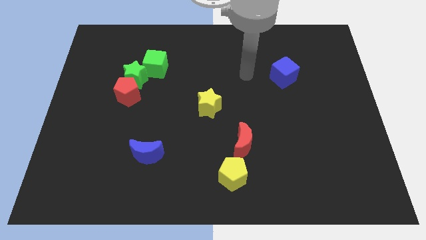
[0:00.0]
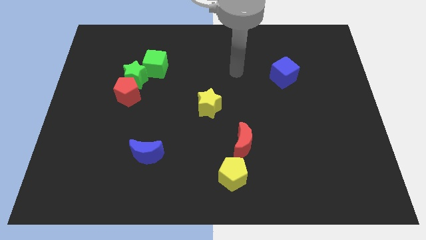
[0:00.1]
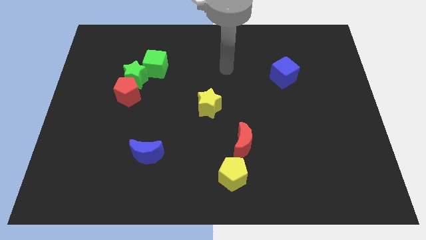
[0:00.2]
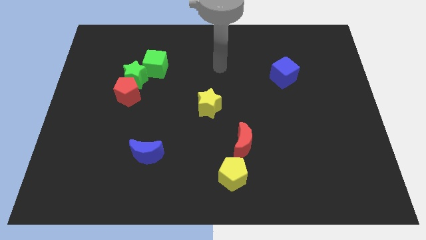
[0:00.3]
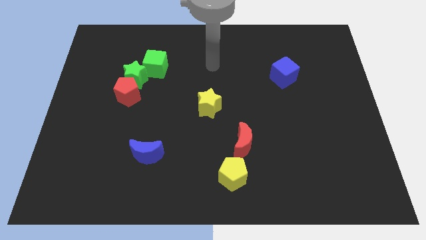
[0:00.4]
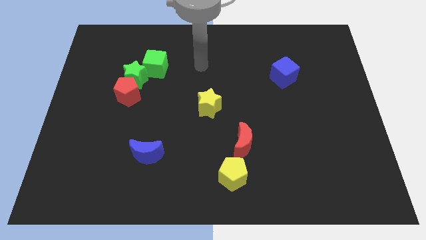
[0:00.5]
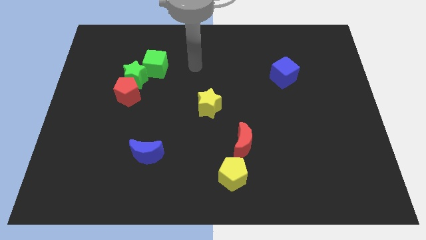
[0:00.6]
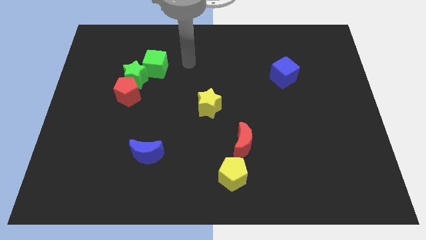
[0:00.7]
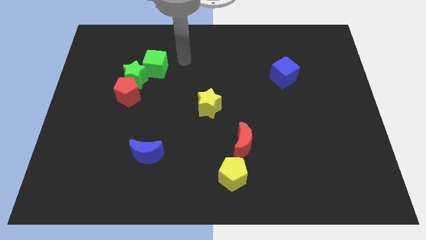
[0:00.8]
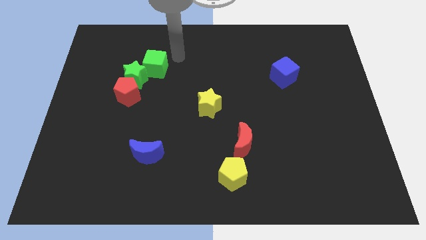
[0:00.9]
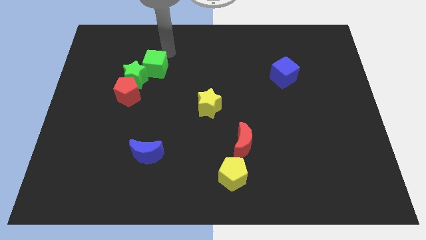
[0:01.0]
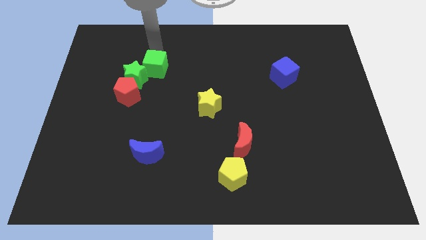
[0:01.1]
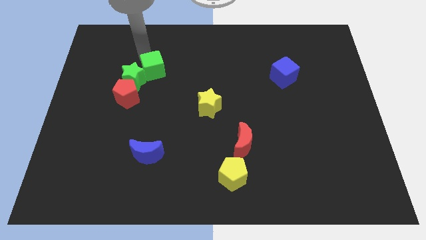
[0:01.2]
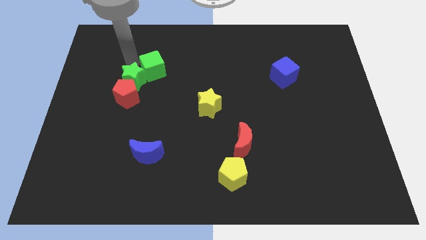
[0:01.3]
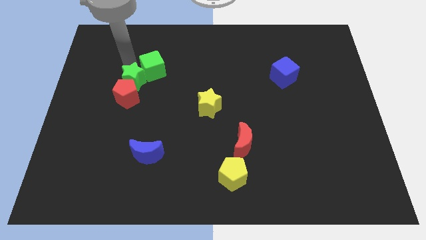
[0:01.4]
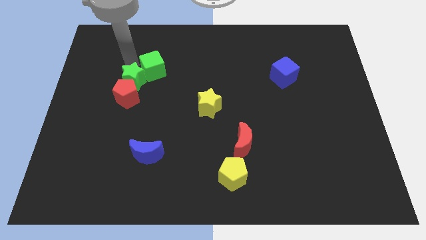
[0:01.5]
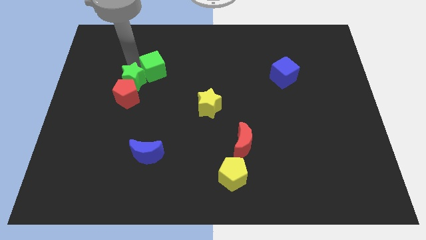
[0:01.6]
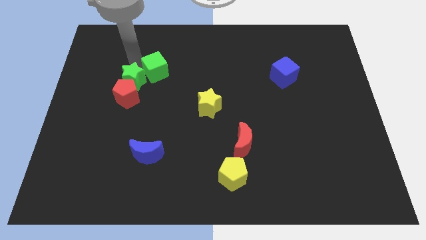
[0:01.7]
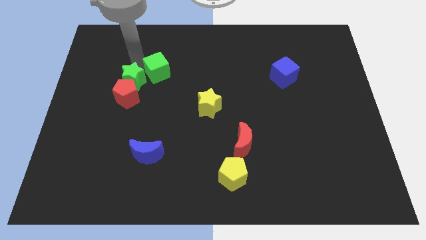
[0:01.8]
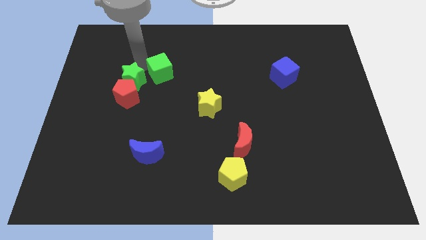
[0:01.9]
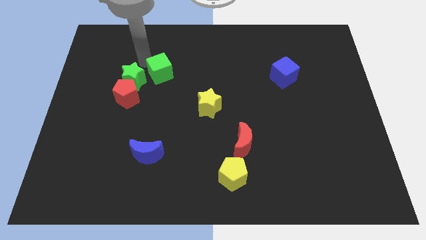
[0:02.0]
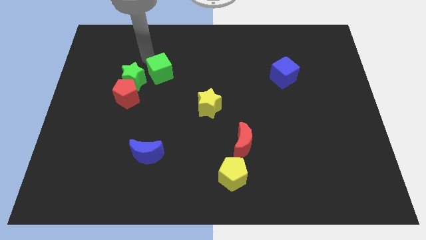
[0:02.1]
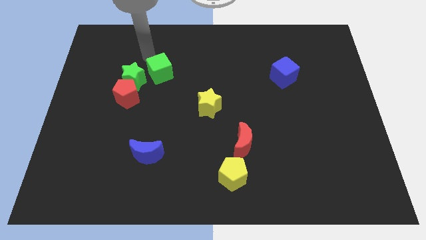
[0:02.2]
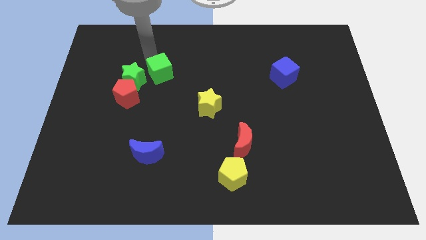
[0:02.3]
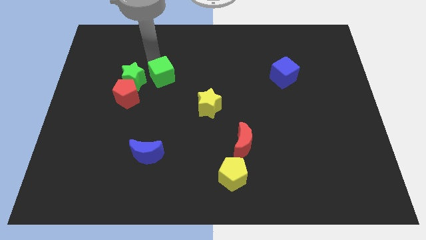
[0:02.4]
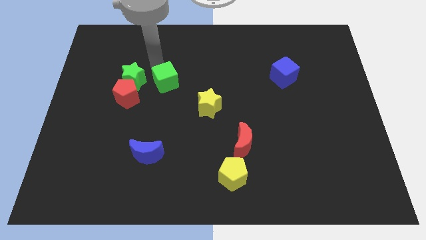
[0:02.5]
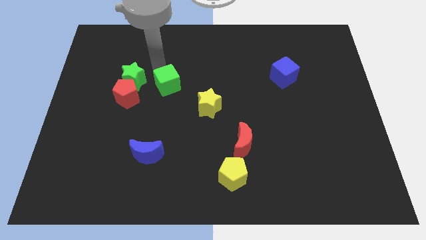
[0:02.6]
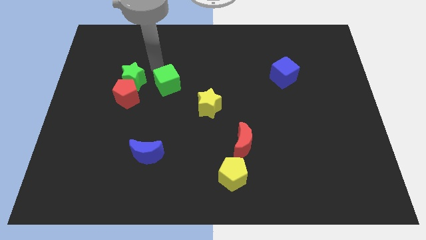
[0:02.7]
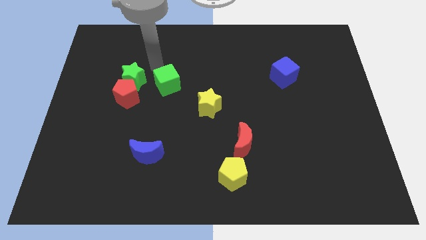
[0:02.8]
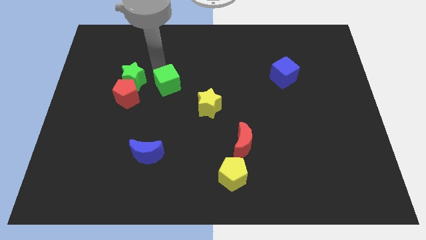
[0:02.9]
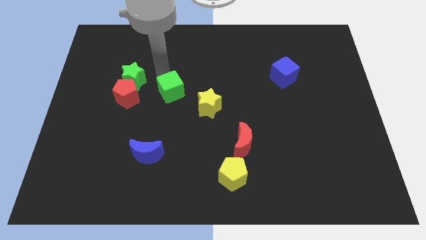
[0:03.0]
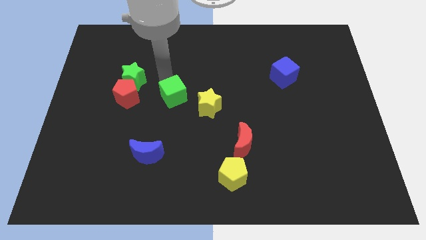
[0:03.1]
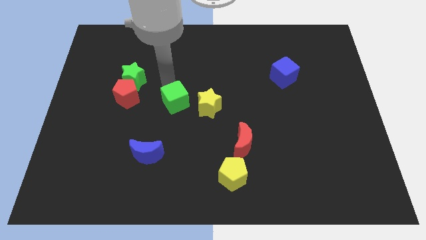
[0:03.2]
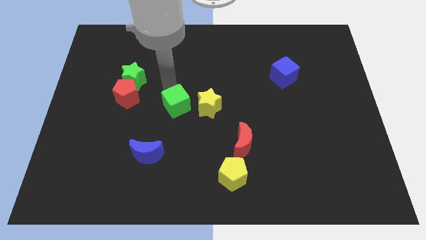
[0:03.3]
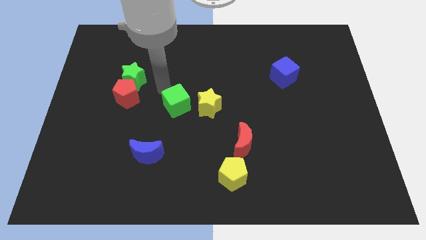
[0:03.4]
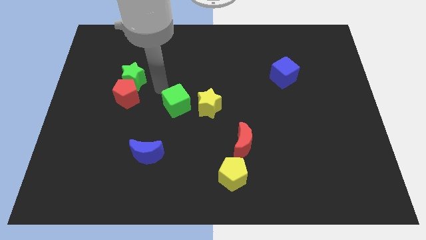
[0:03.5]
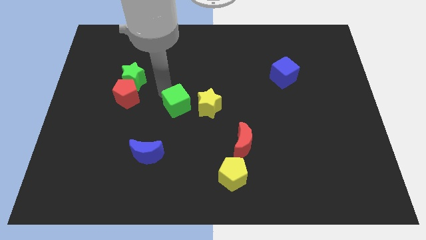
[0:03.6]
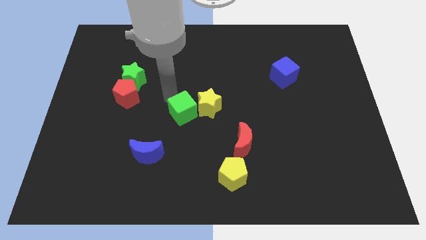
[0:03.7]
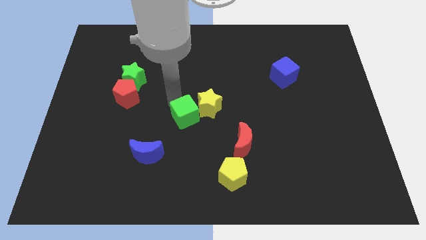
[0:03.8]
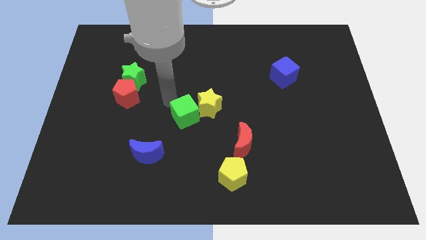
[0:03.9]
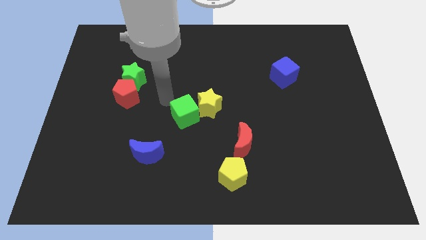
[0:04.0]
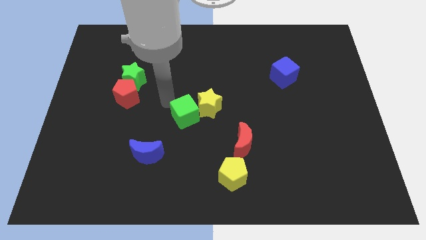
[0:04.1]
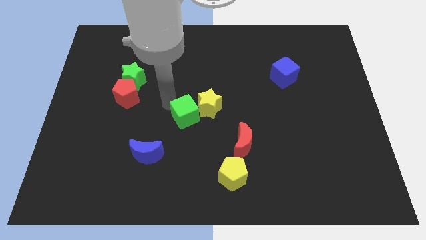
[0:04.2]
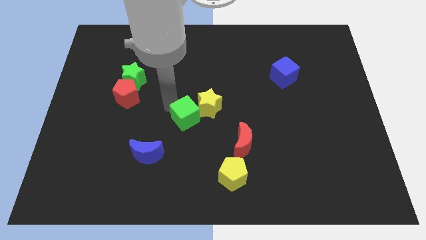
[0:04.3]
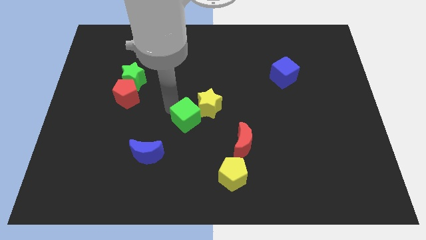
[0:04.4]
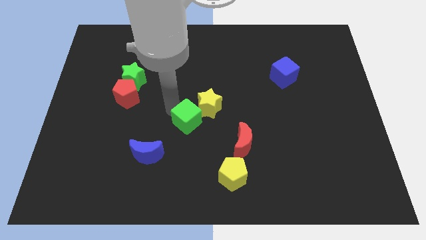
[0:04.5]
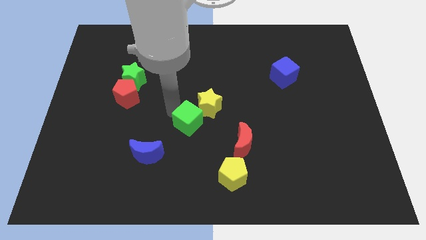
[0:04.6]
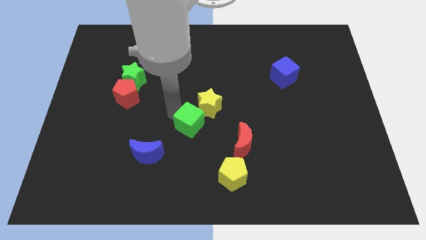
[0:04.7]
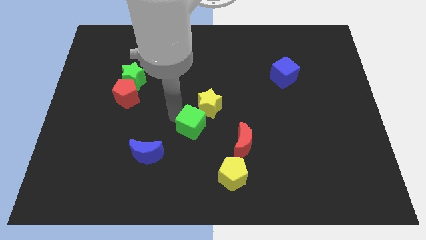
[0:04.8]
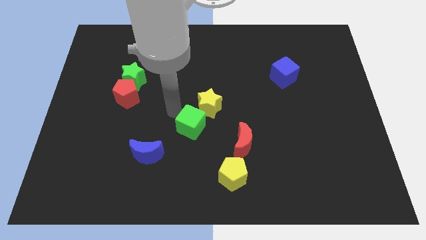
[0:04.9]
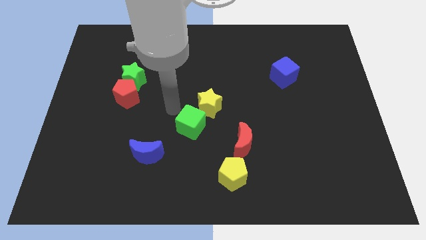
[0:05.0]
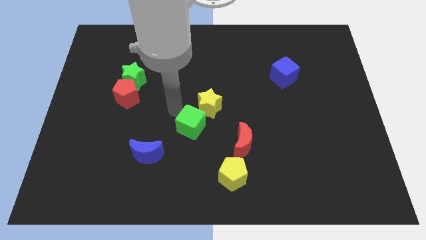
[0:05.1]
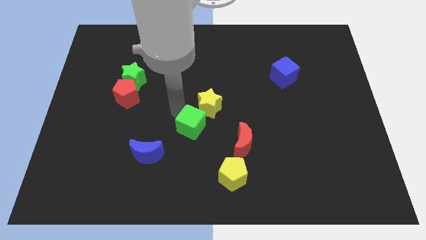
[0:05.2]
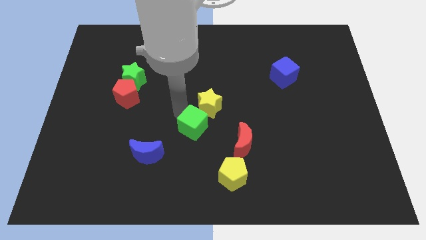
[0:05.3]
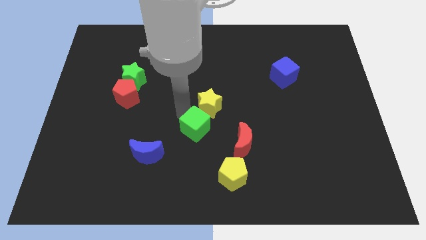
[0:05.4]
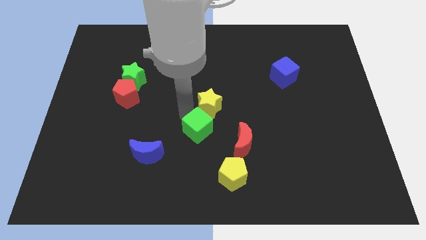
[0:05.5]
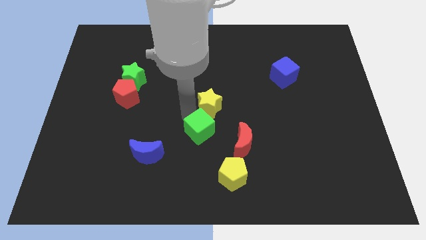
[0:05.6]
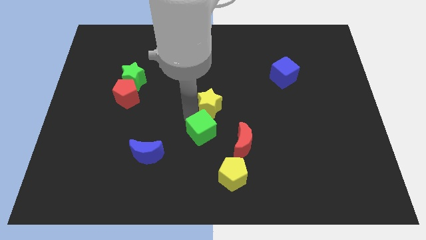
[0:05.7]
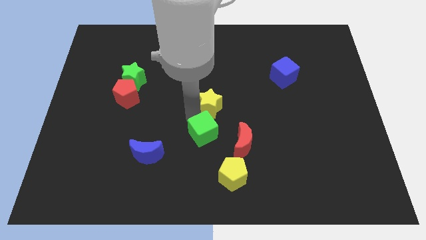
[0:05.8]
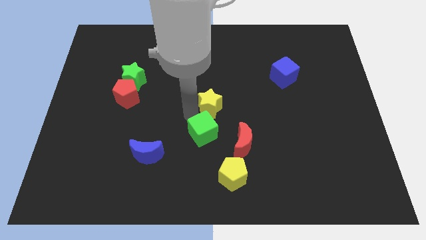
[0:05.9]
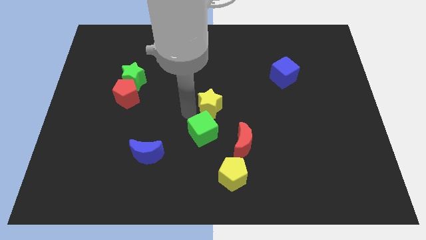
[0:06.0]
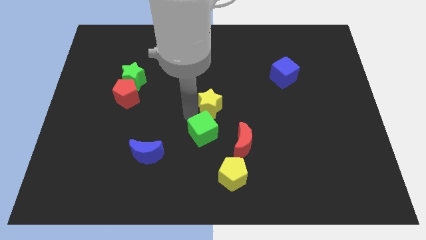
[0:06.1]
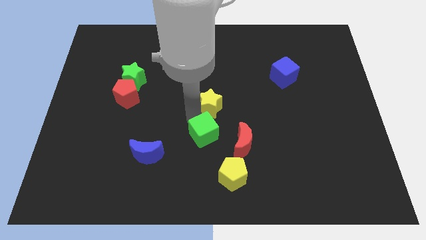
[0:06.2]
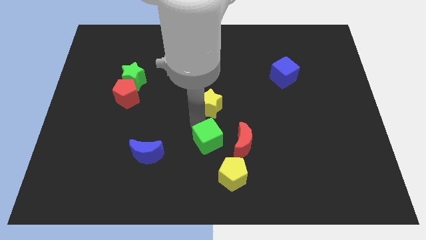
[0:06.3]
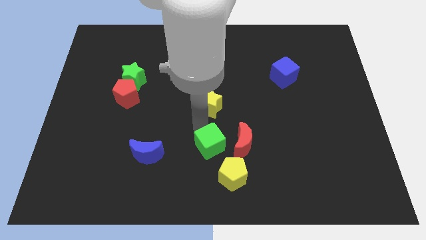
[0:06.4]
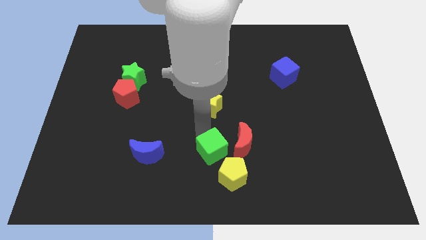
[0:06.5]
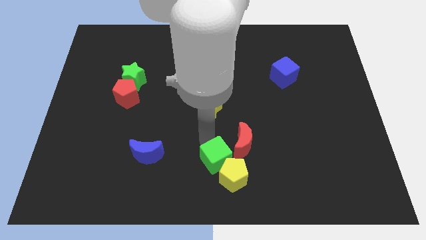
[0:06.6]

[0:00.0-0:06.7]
push the green cube to the yellow pentagon

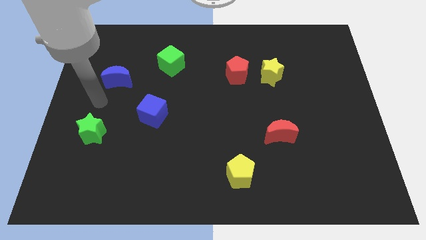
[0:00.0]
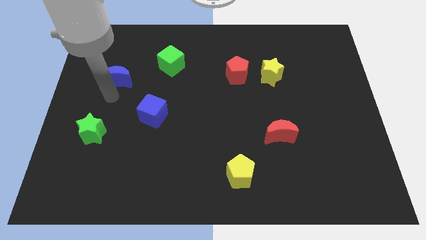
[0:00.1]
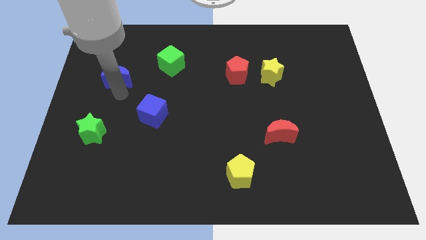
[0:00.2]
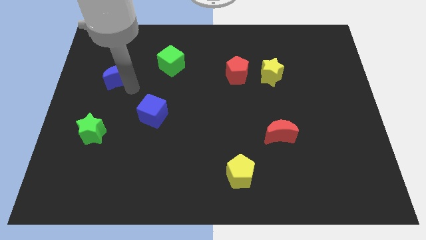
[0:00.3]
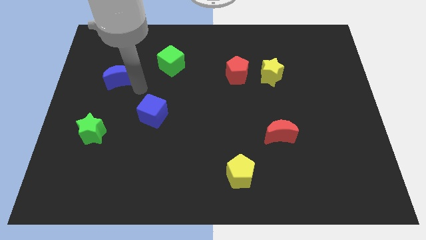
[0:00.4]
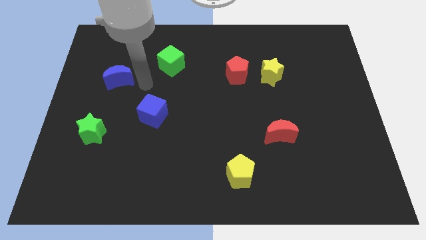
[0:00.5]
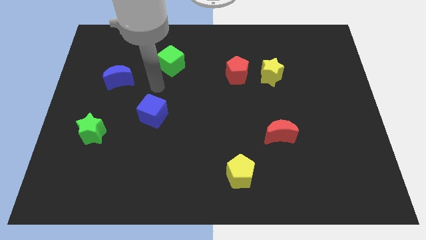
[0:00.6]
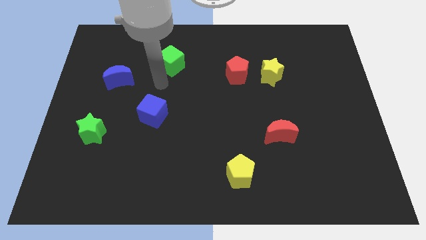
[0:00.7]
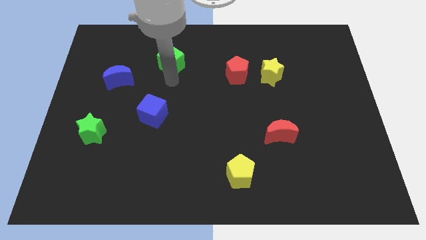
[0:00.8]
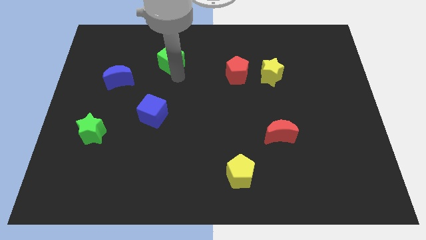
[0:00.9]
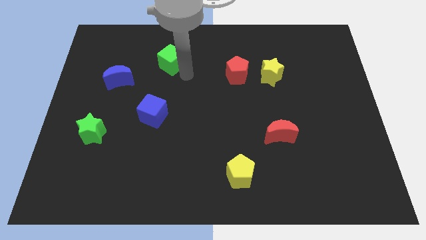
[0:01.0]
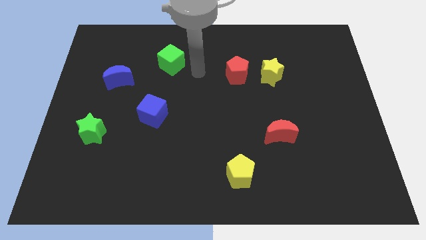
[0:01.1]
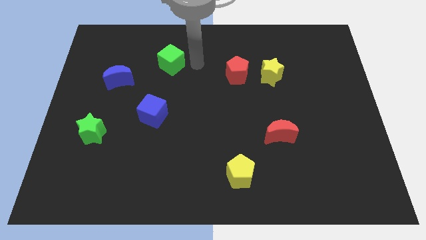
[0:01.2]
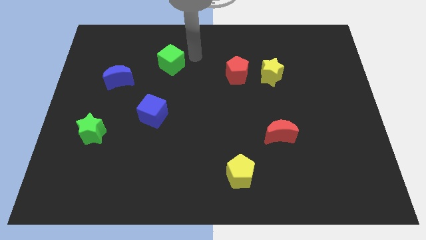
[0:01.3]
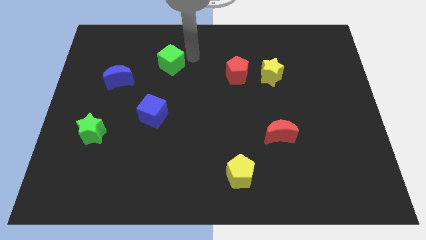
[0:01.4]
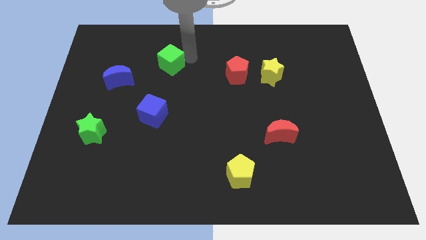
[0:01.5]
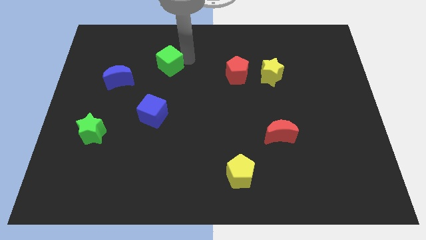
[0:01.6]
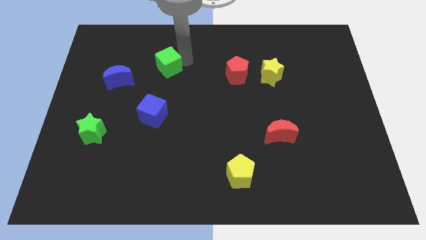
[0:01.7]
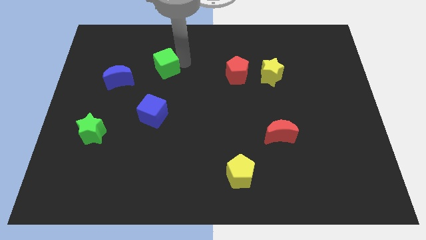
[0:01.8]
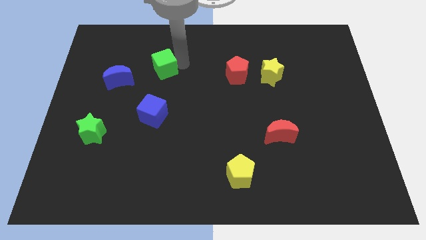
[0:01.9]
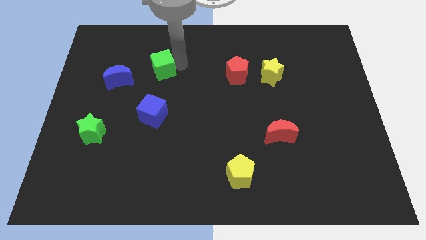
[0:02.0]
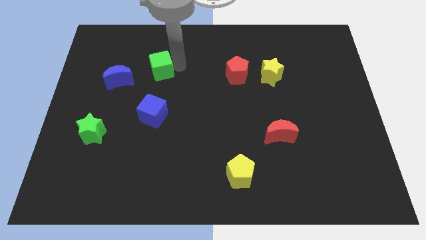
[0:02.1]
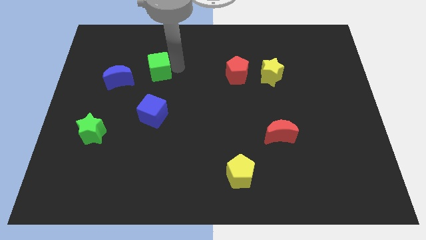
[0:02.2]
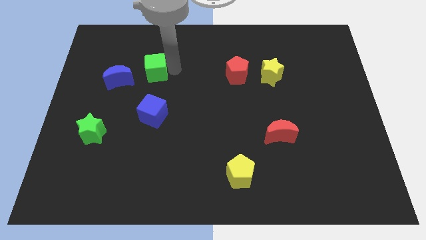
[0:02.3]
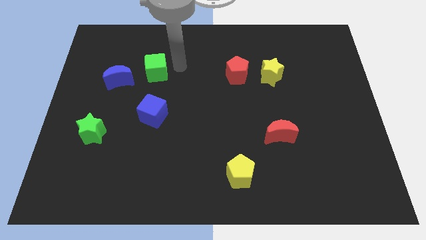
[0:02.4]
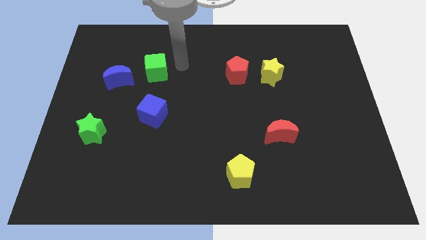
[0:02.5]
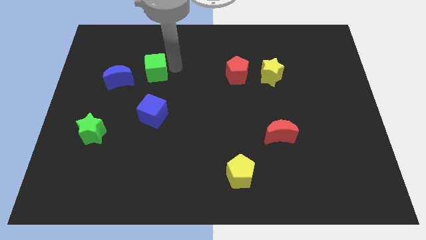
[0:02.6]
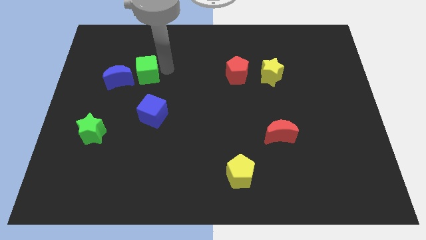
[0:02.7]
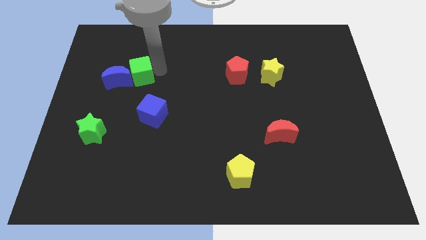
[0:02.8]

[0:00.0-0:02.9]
move the green cube towards the blue moon
